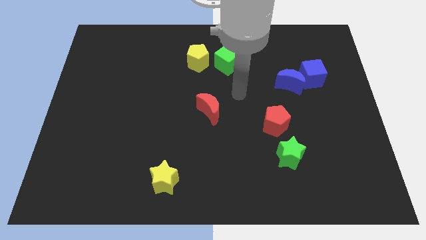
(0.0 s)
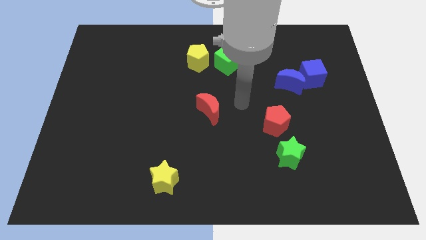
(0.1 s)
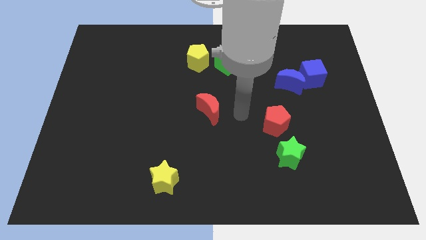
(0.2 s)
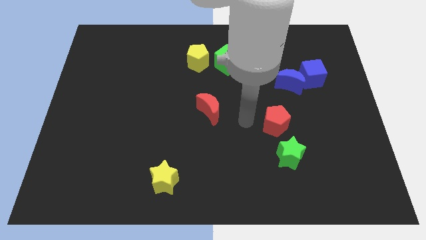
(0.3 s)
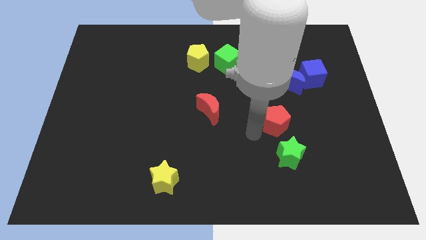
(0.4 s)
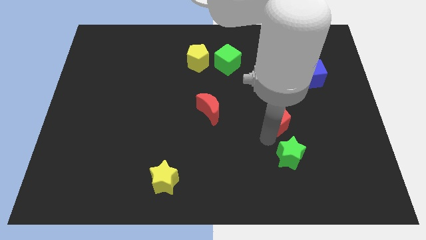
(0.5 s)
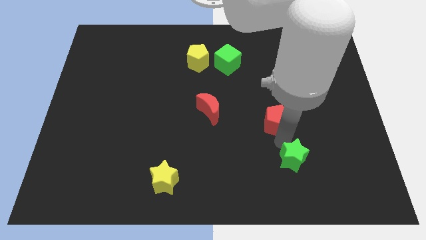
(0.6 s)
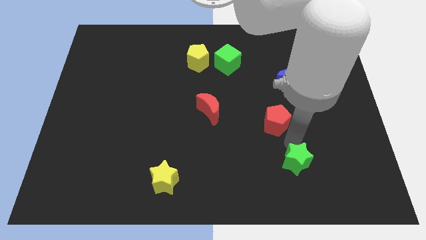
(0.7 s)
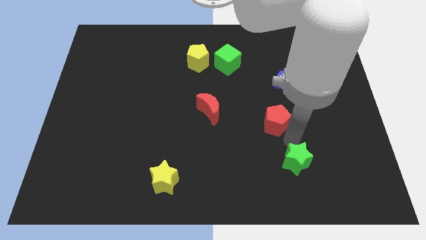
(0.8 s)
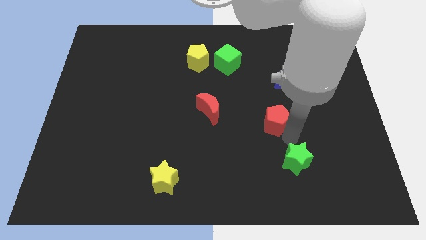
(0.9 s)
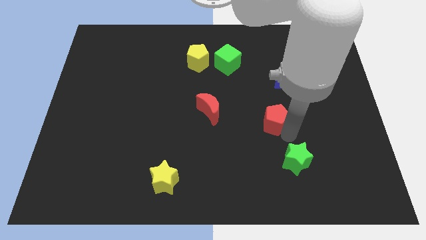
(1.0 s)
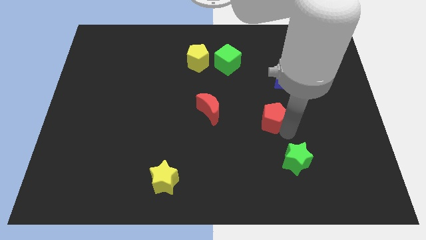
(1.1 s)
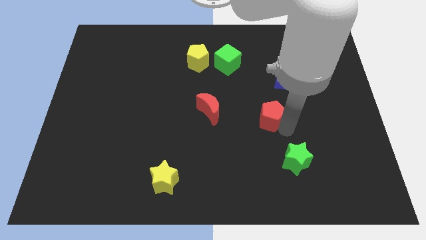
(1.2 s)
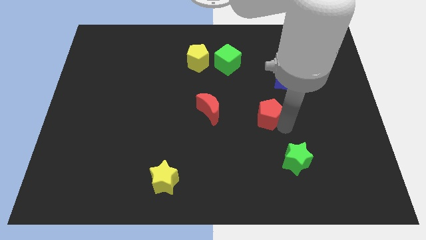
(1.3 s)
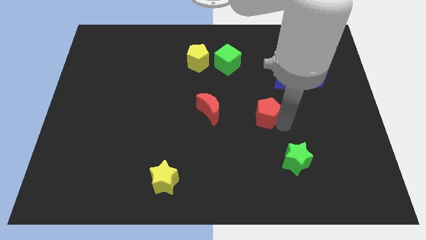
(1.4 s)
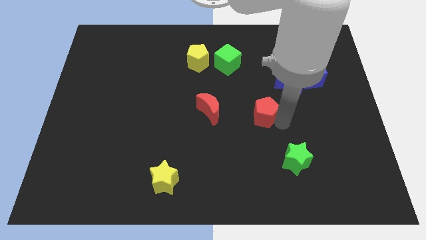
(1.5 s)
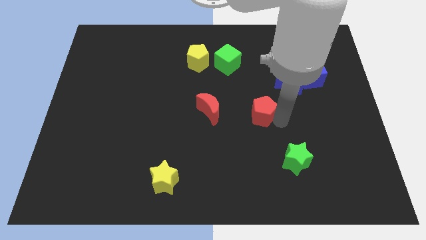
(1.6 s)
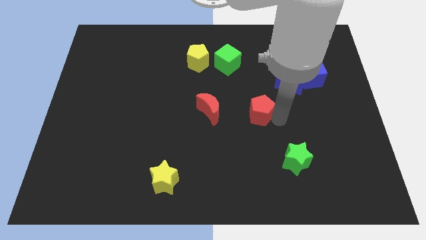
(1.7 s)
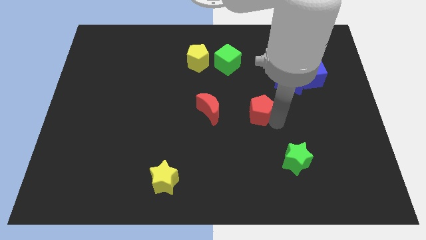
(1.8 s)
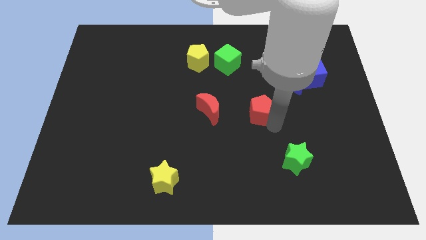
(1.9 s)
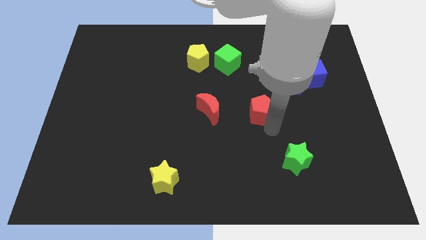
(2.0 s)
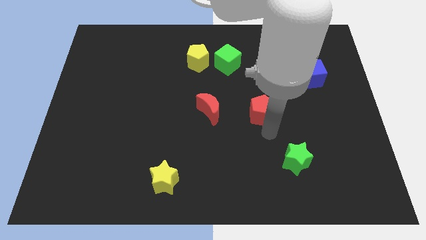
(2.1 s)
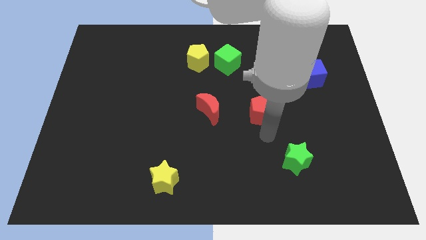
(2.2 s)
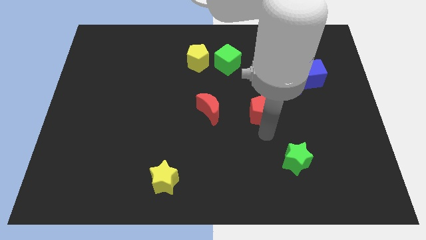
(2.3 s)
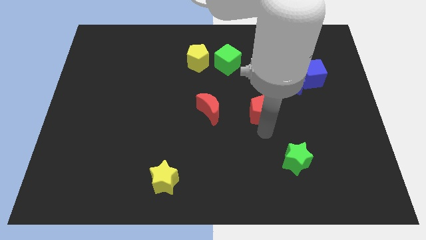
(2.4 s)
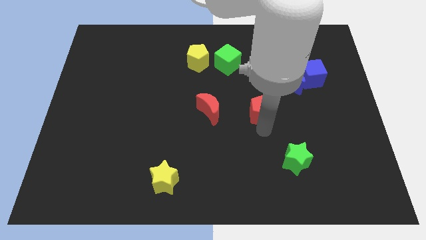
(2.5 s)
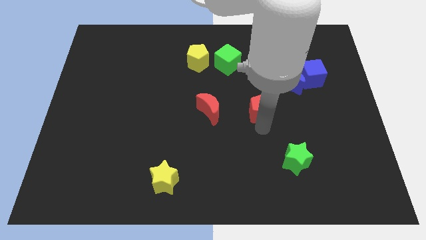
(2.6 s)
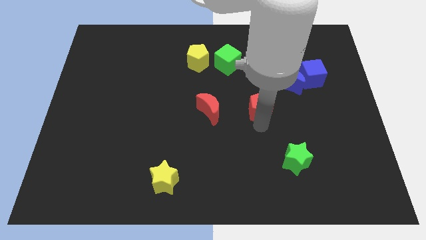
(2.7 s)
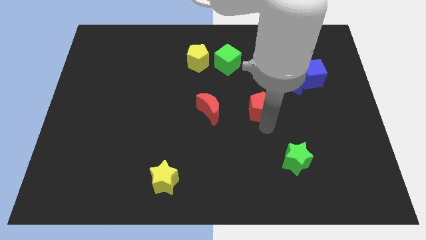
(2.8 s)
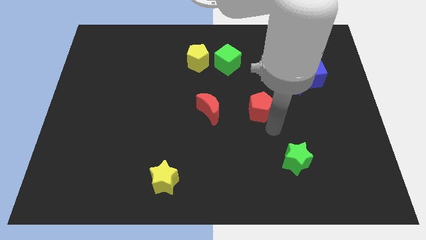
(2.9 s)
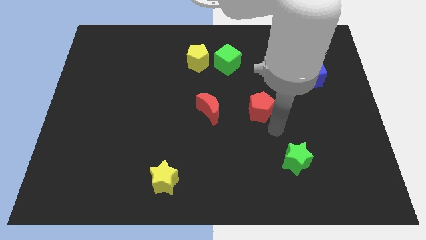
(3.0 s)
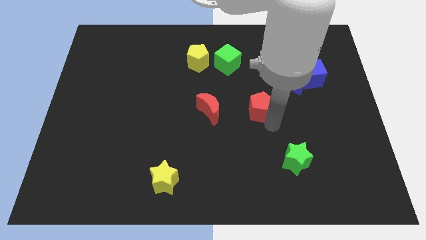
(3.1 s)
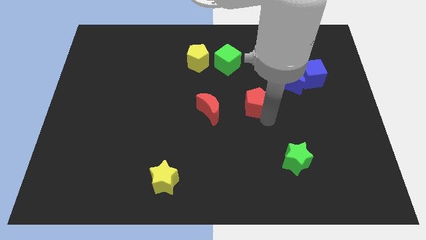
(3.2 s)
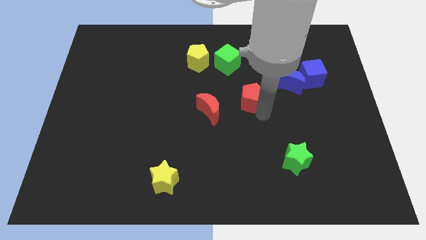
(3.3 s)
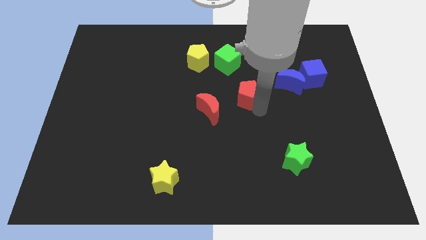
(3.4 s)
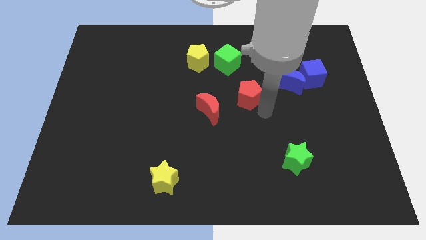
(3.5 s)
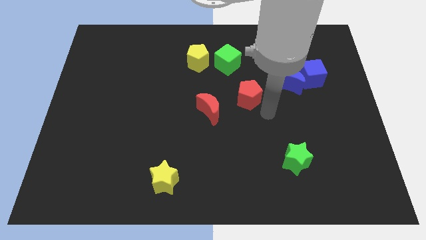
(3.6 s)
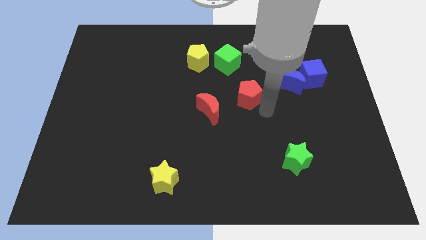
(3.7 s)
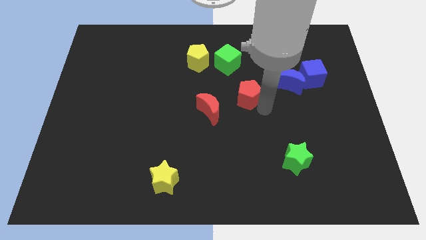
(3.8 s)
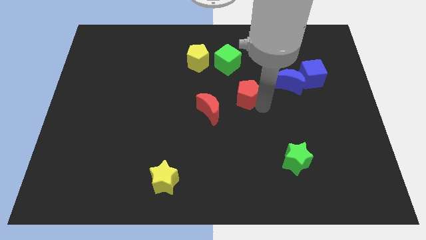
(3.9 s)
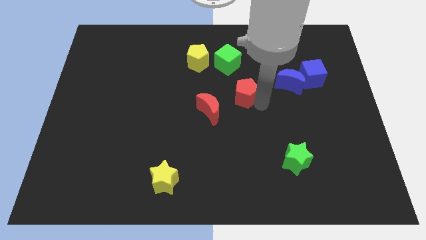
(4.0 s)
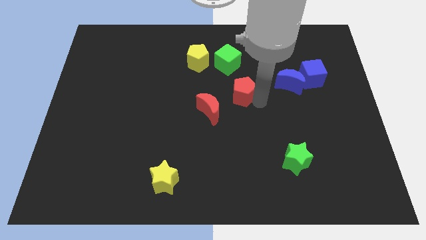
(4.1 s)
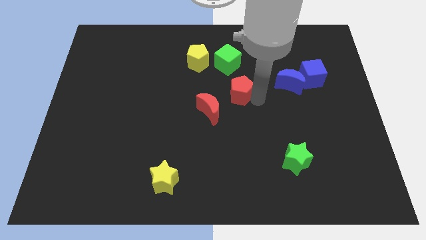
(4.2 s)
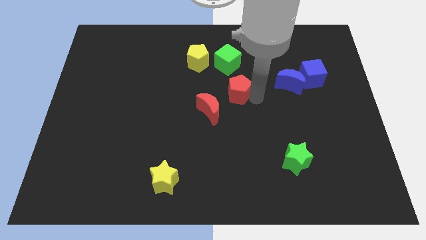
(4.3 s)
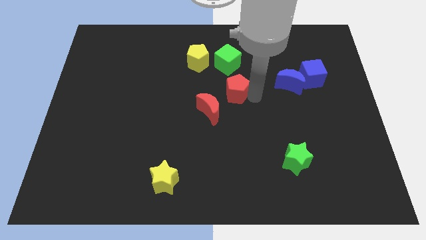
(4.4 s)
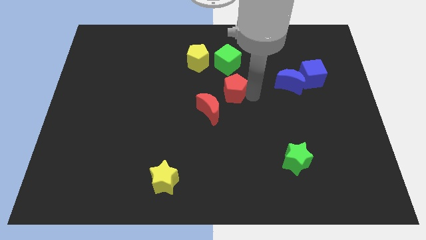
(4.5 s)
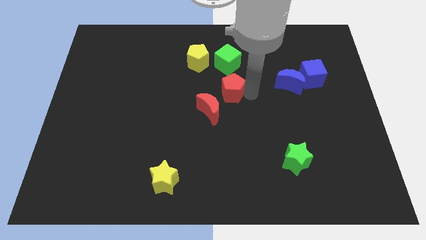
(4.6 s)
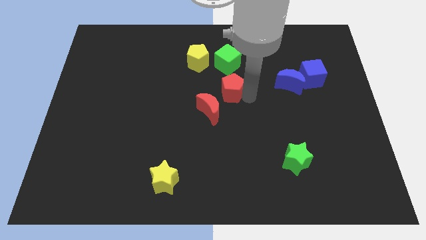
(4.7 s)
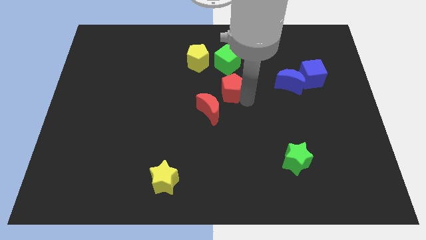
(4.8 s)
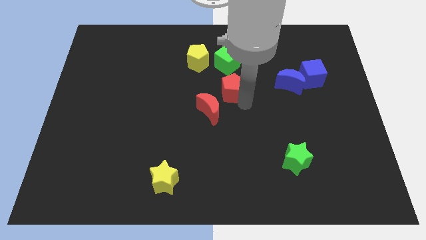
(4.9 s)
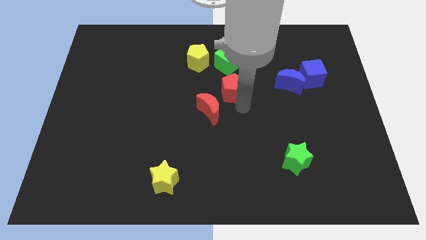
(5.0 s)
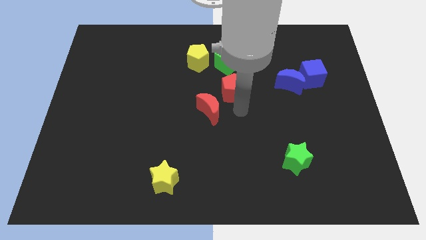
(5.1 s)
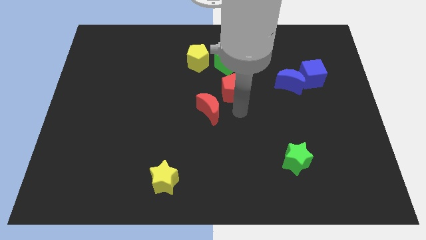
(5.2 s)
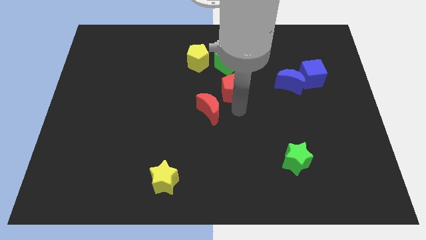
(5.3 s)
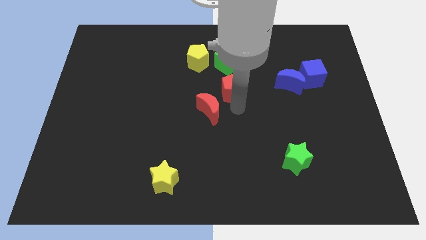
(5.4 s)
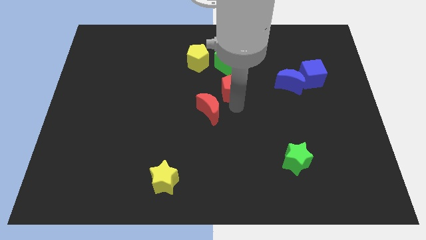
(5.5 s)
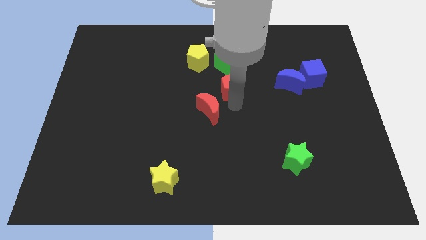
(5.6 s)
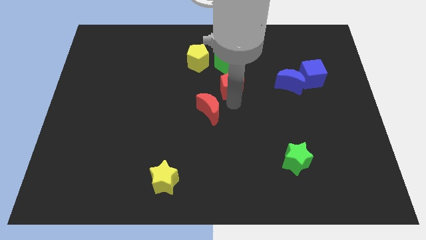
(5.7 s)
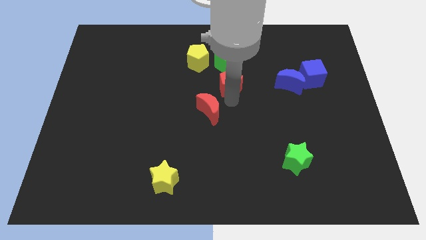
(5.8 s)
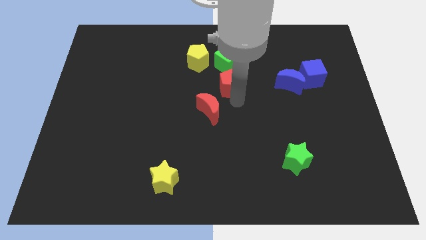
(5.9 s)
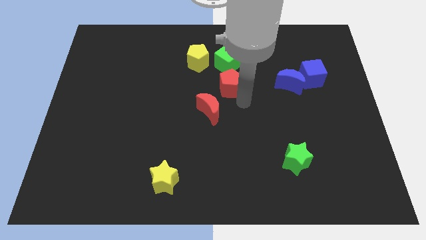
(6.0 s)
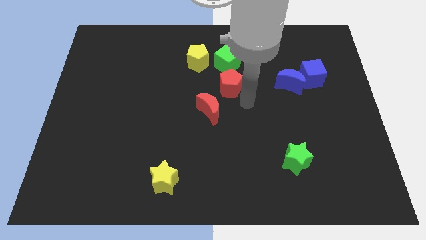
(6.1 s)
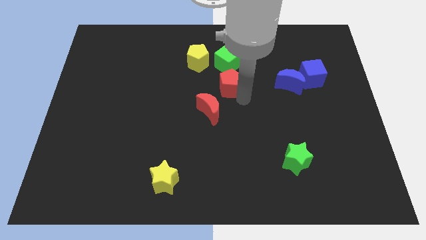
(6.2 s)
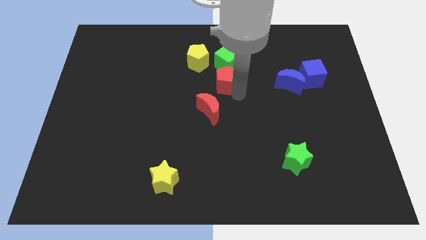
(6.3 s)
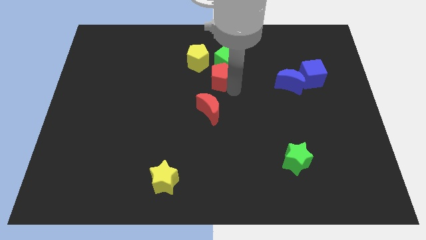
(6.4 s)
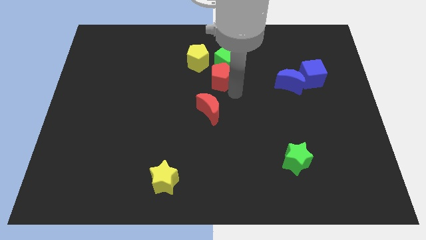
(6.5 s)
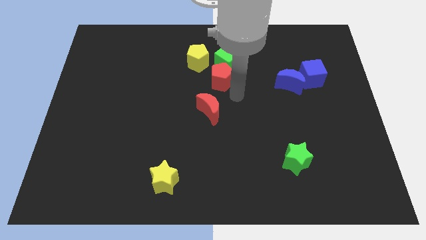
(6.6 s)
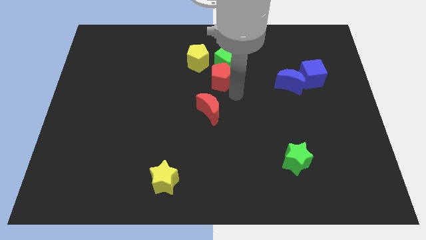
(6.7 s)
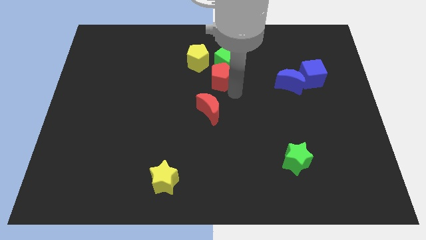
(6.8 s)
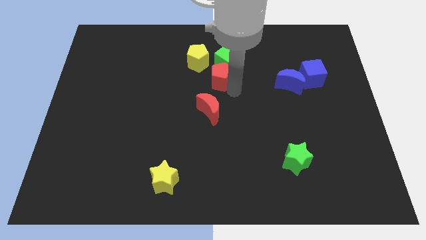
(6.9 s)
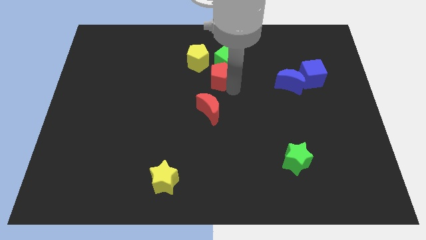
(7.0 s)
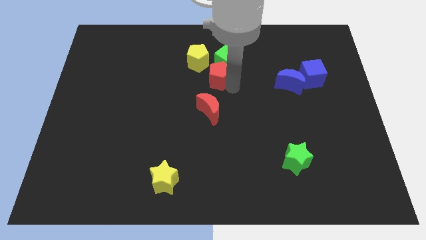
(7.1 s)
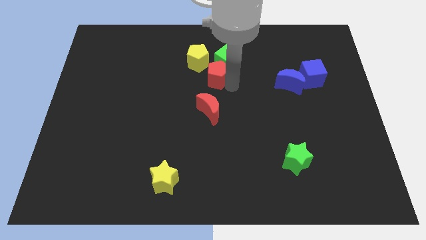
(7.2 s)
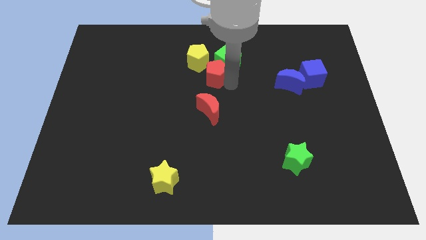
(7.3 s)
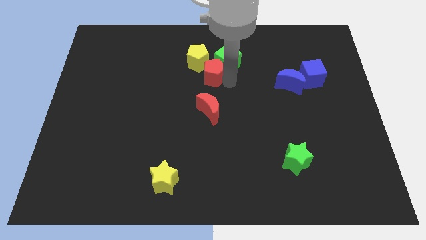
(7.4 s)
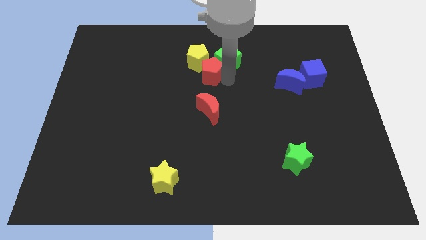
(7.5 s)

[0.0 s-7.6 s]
push the red pentagon to the yellow pentagon
